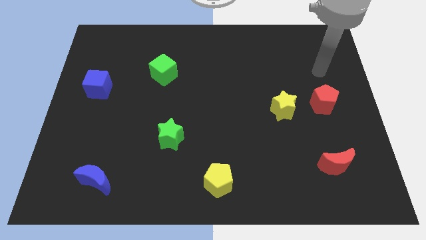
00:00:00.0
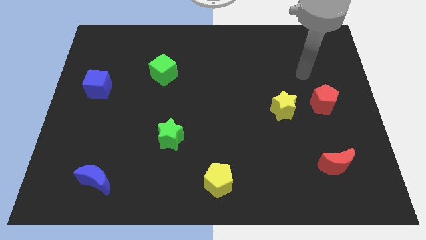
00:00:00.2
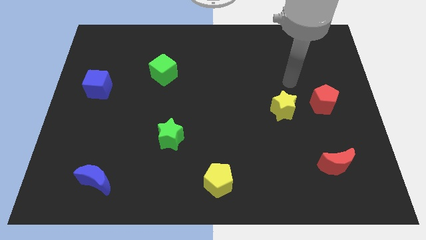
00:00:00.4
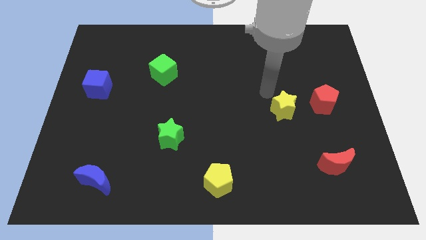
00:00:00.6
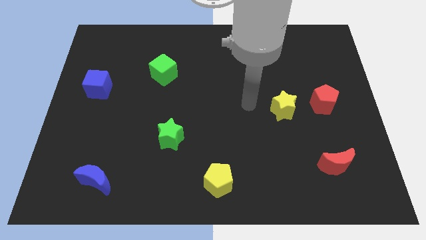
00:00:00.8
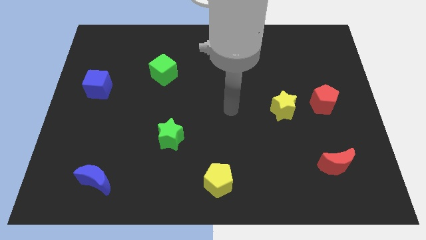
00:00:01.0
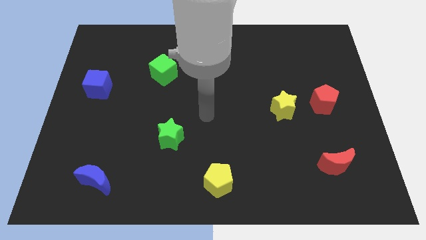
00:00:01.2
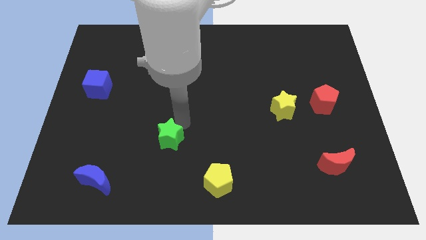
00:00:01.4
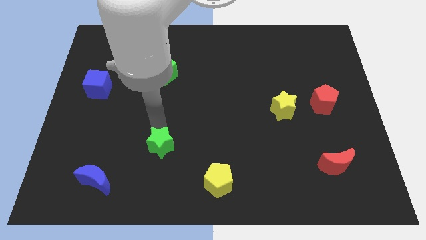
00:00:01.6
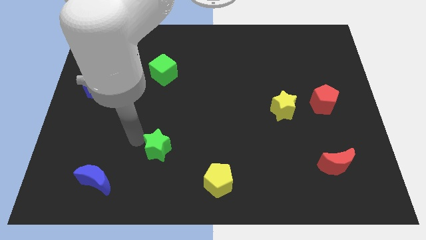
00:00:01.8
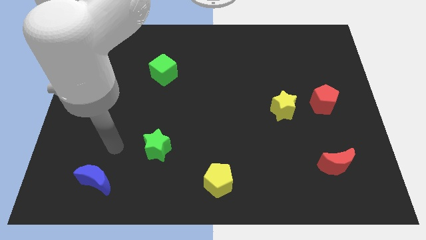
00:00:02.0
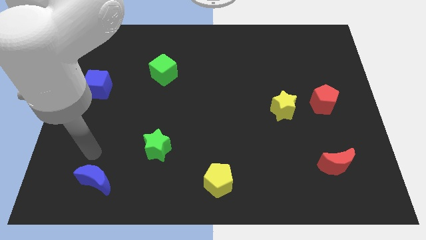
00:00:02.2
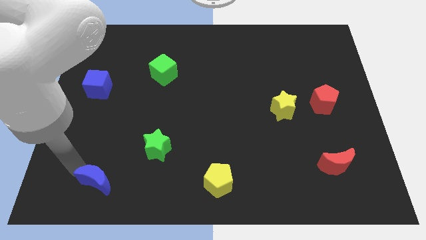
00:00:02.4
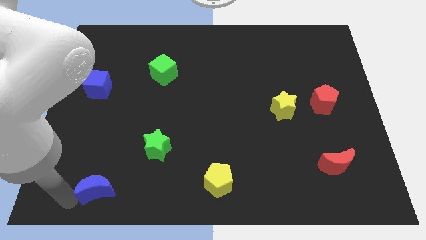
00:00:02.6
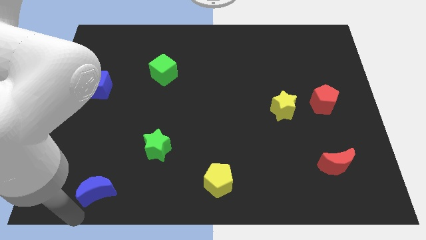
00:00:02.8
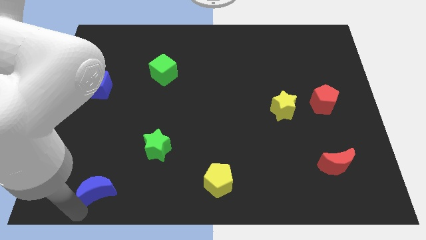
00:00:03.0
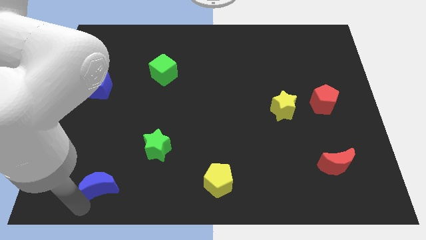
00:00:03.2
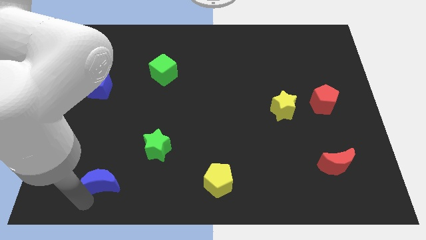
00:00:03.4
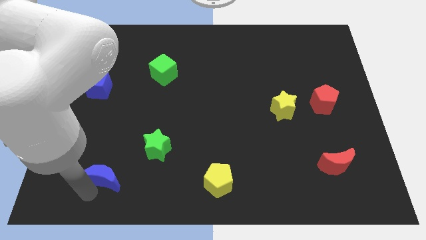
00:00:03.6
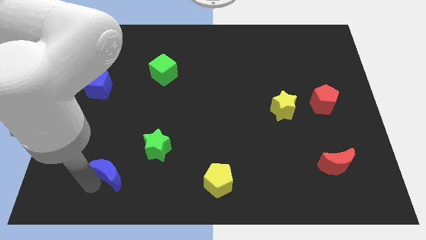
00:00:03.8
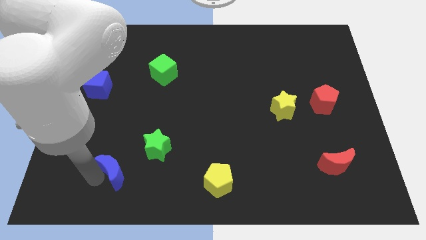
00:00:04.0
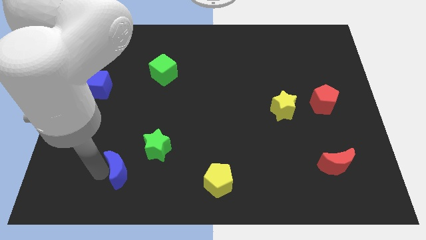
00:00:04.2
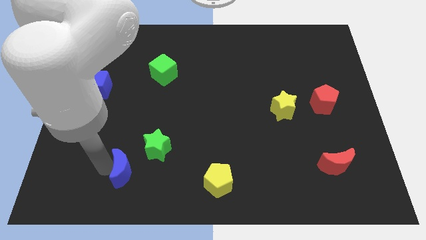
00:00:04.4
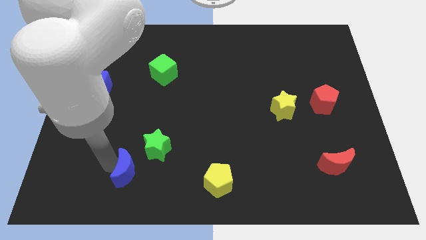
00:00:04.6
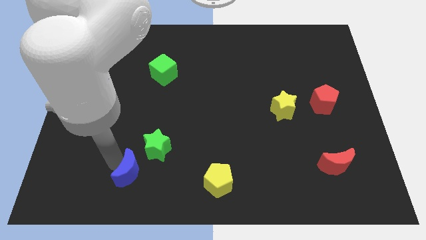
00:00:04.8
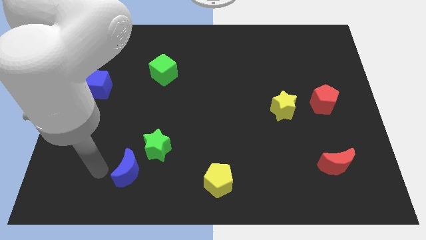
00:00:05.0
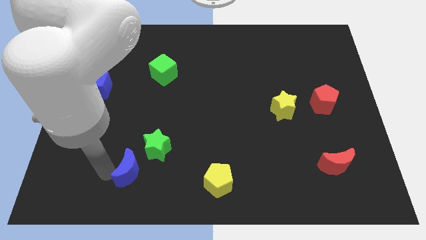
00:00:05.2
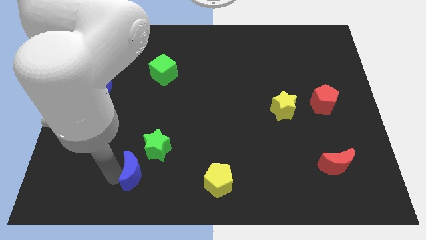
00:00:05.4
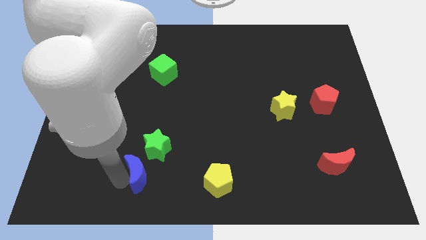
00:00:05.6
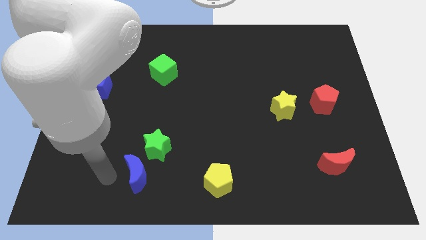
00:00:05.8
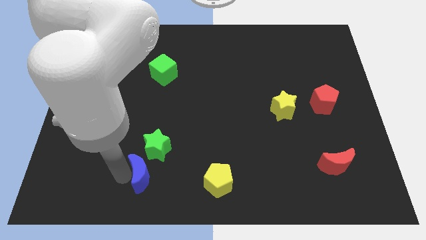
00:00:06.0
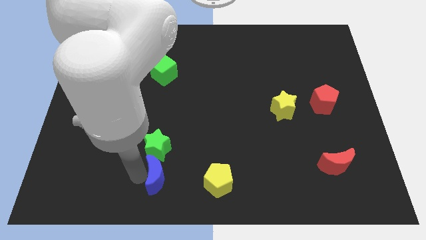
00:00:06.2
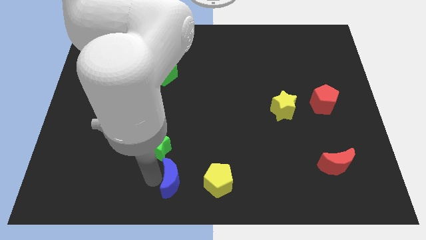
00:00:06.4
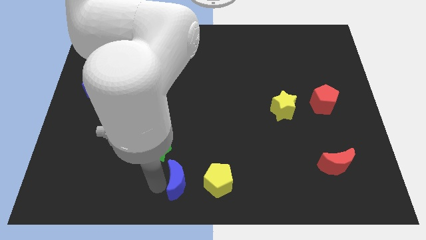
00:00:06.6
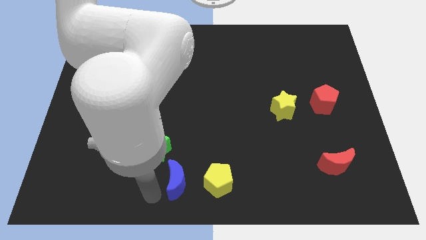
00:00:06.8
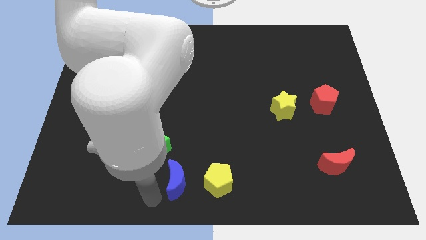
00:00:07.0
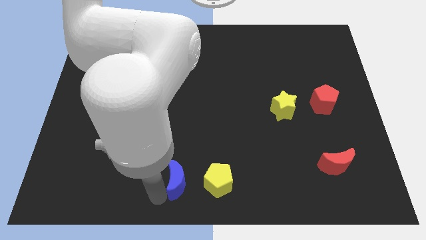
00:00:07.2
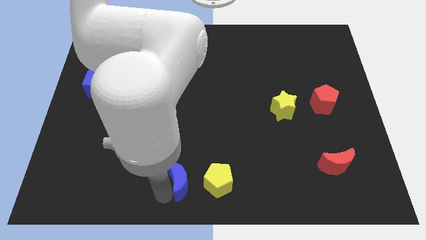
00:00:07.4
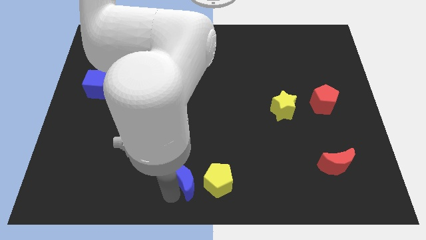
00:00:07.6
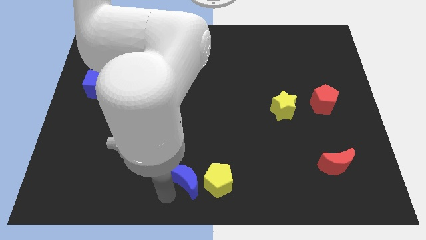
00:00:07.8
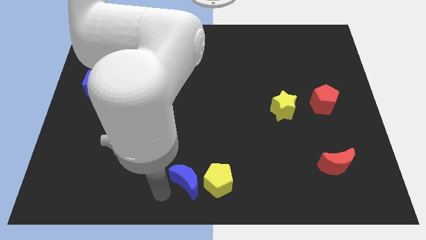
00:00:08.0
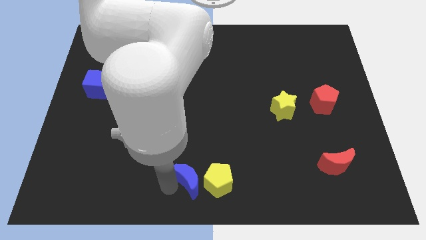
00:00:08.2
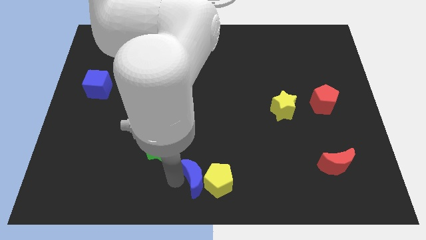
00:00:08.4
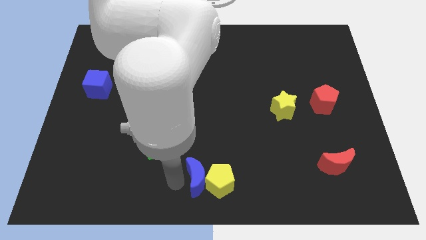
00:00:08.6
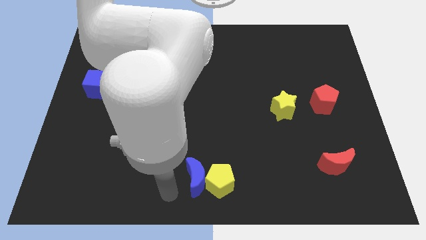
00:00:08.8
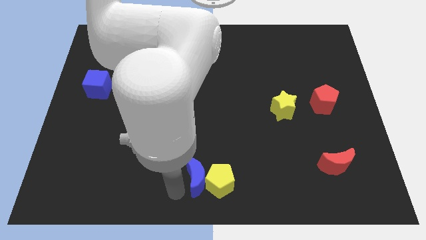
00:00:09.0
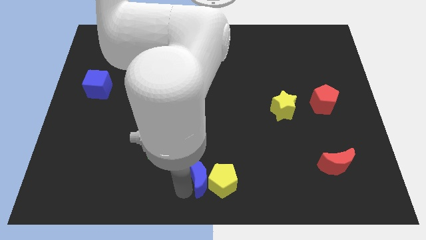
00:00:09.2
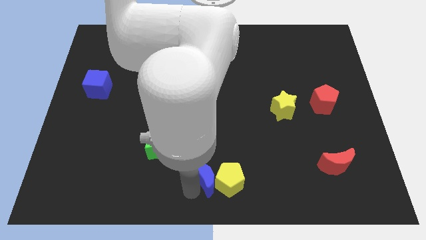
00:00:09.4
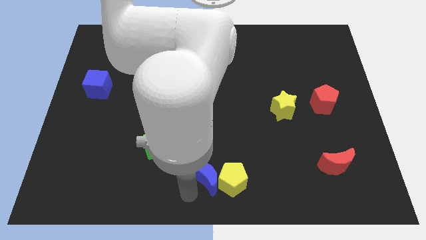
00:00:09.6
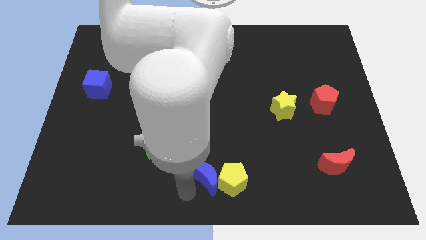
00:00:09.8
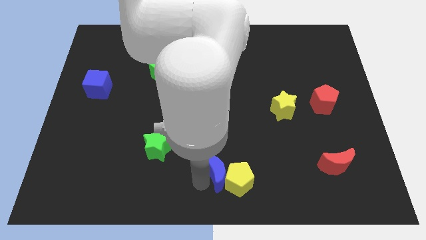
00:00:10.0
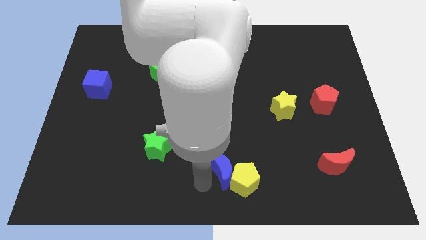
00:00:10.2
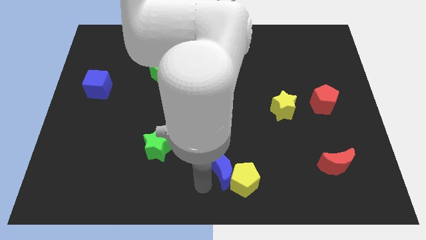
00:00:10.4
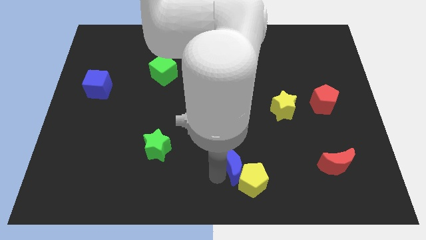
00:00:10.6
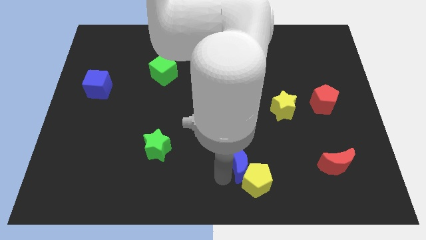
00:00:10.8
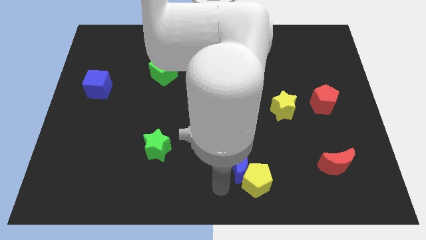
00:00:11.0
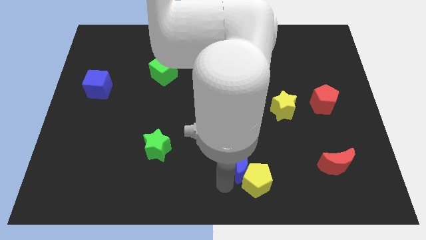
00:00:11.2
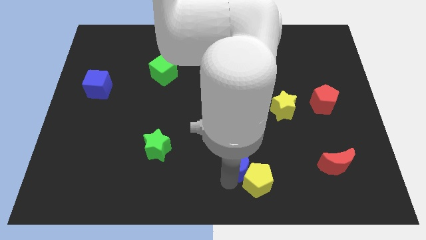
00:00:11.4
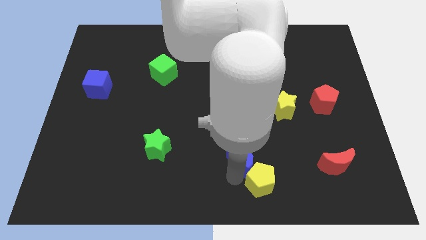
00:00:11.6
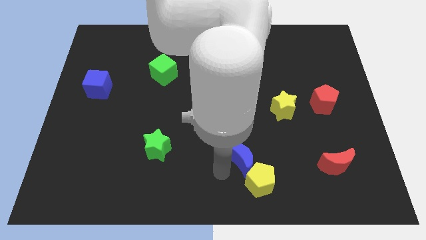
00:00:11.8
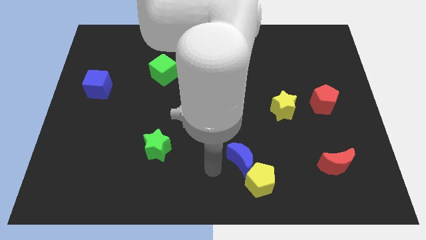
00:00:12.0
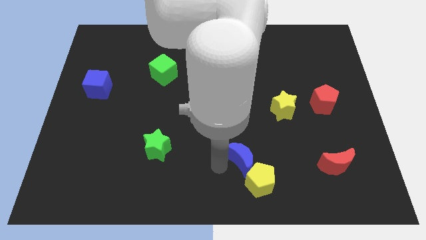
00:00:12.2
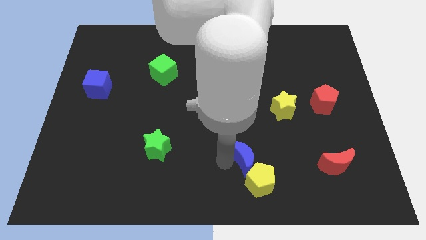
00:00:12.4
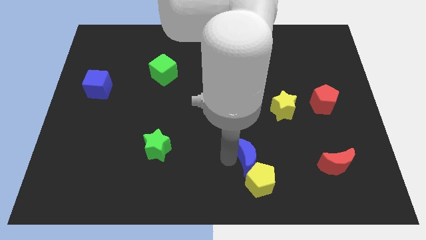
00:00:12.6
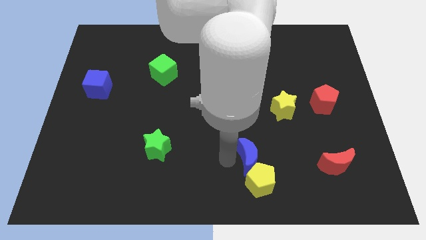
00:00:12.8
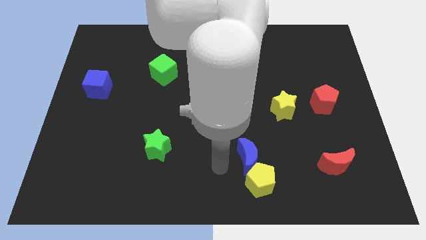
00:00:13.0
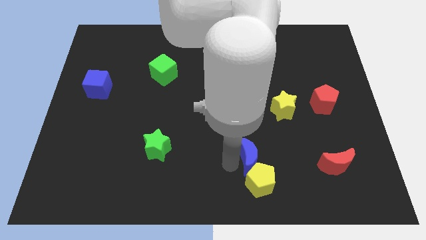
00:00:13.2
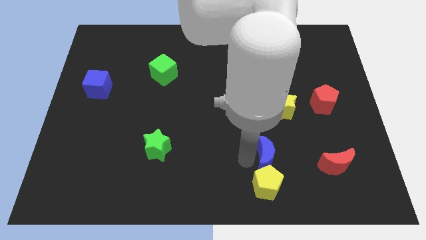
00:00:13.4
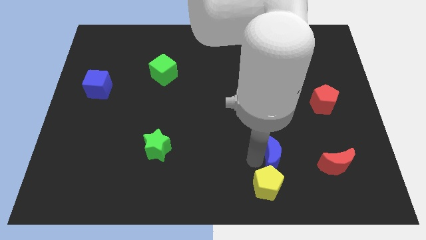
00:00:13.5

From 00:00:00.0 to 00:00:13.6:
slide the blue moon to the bottom side of the yellow star
